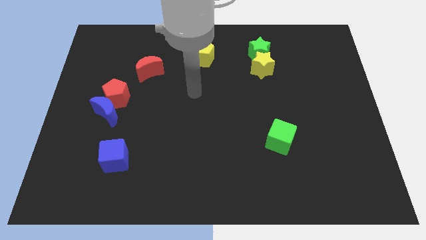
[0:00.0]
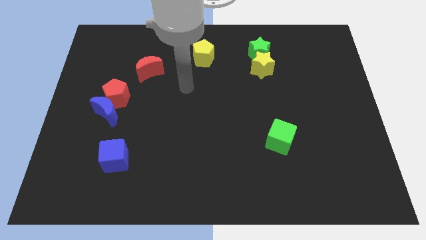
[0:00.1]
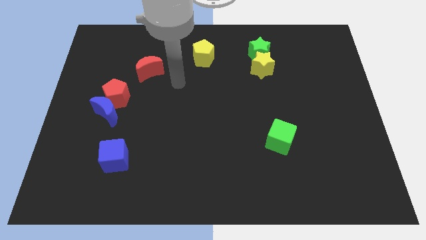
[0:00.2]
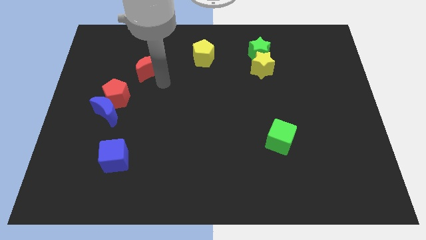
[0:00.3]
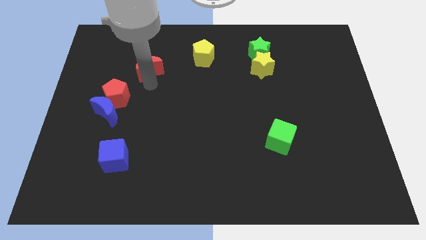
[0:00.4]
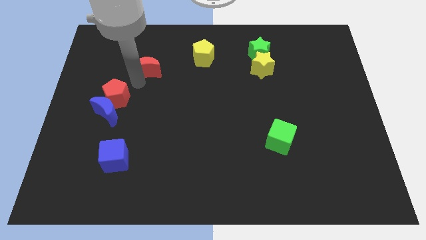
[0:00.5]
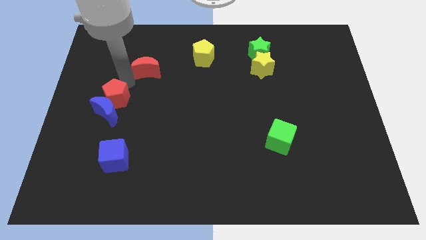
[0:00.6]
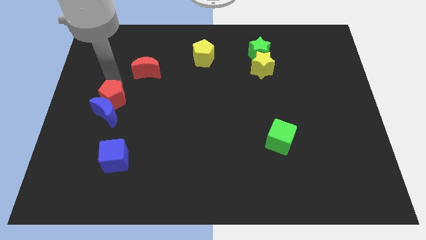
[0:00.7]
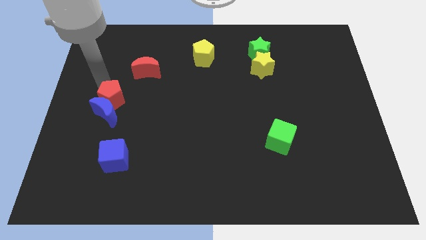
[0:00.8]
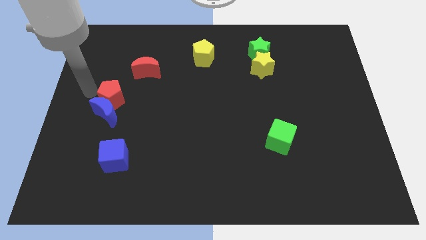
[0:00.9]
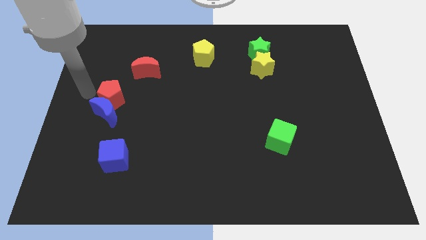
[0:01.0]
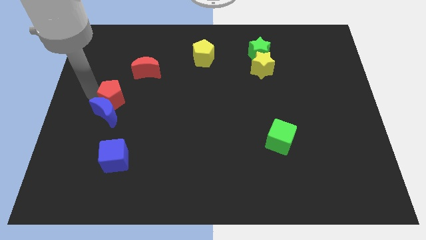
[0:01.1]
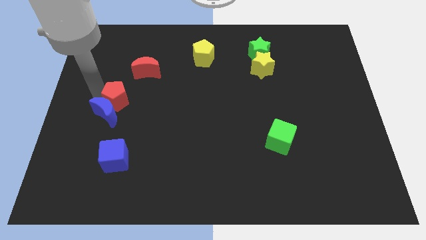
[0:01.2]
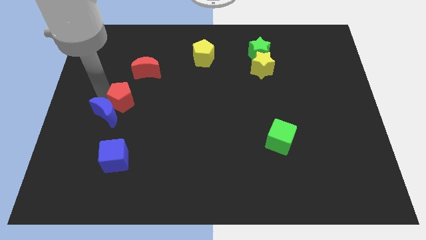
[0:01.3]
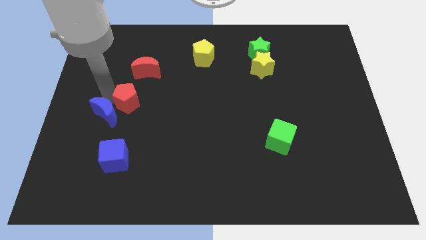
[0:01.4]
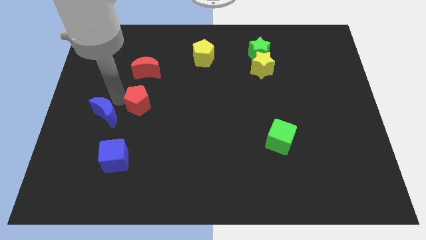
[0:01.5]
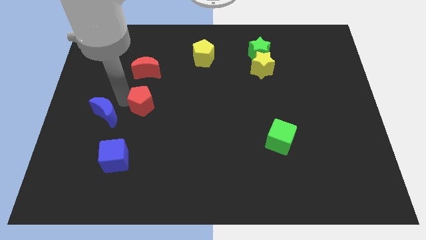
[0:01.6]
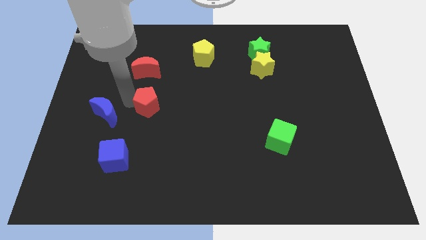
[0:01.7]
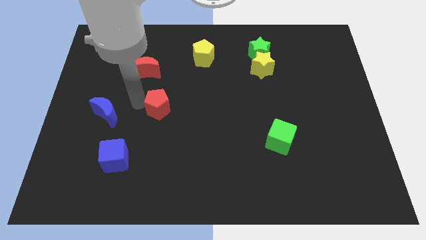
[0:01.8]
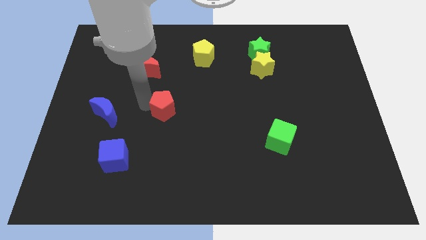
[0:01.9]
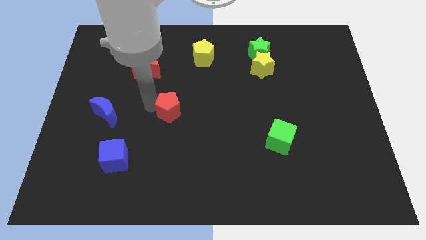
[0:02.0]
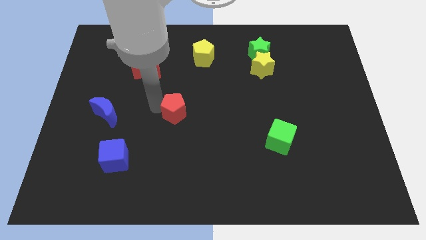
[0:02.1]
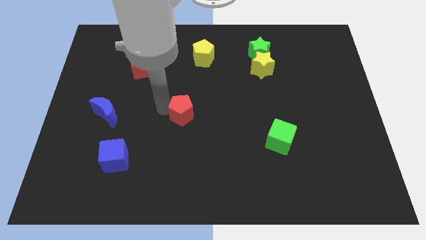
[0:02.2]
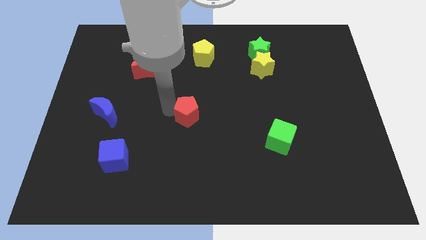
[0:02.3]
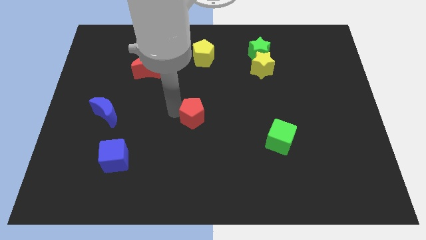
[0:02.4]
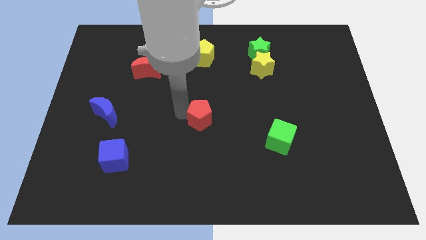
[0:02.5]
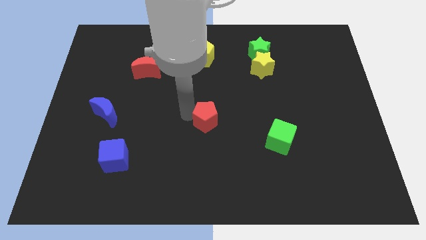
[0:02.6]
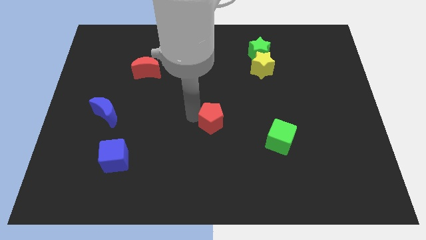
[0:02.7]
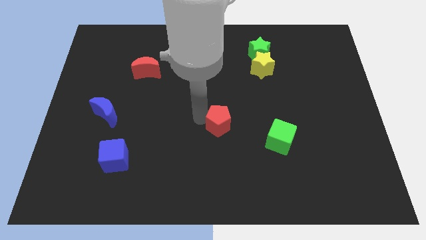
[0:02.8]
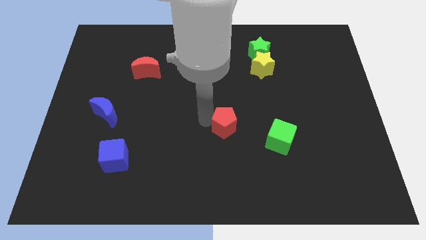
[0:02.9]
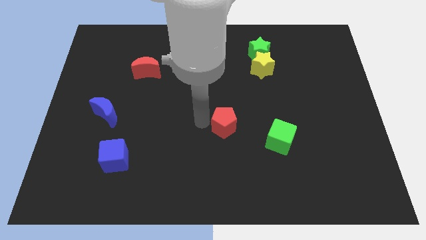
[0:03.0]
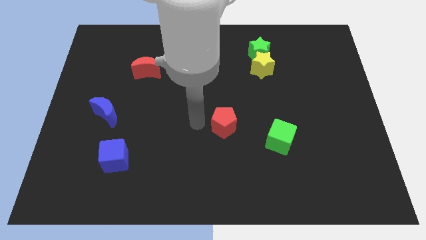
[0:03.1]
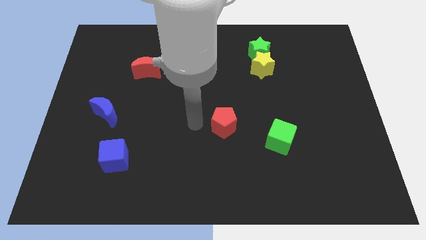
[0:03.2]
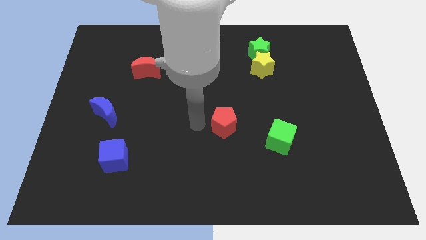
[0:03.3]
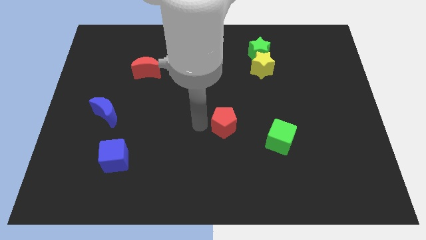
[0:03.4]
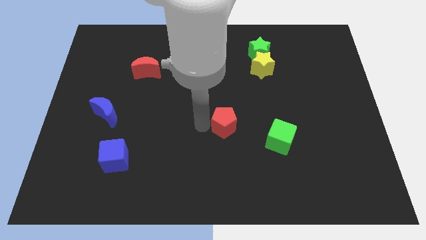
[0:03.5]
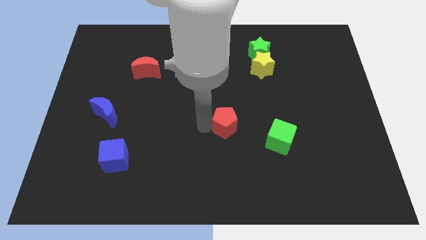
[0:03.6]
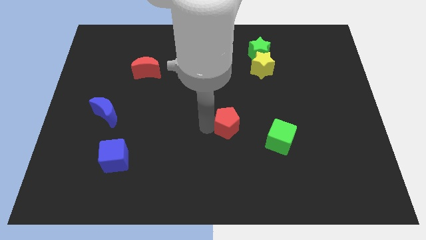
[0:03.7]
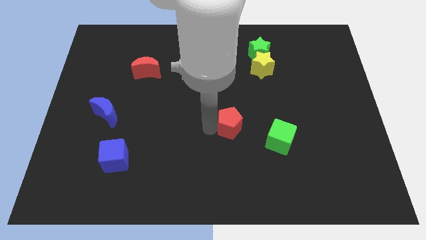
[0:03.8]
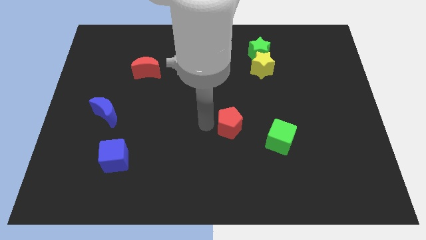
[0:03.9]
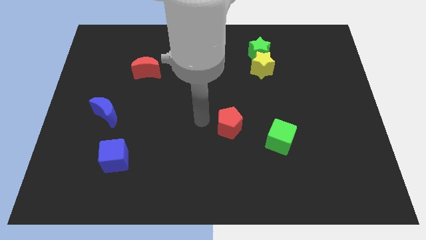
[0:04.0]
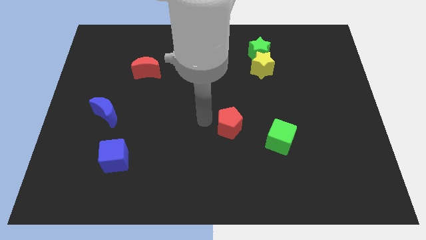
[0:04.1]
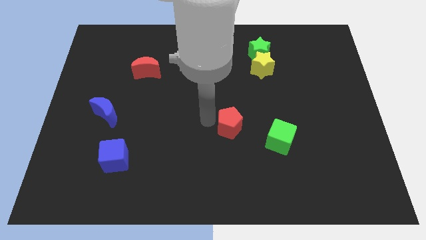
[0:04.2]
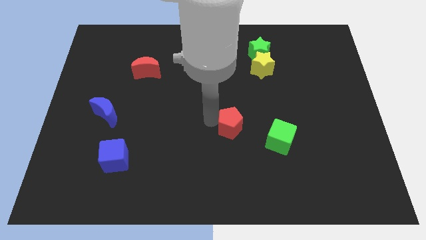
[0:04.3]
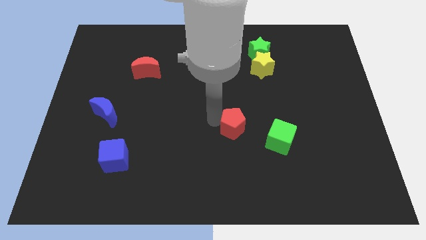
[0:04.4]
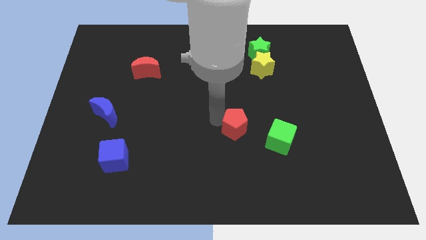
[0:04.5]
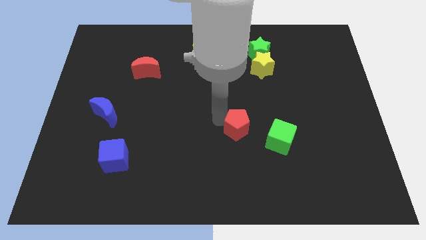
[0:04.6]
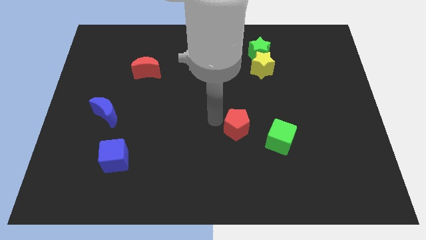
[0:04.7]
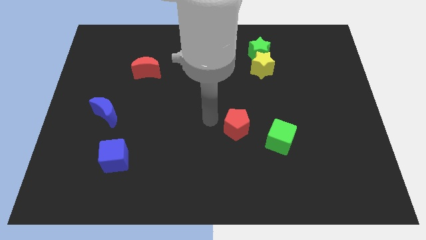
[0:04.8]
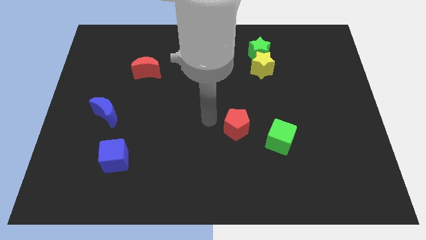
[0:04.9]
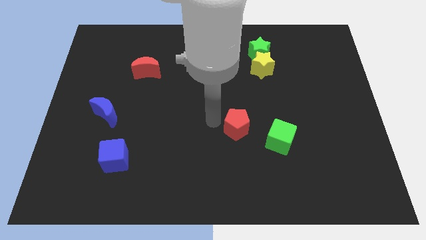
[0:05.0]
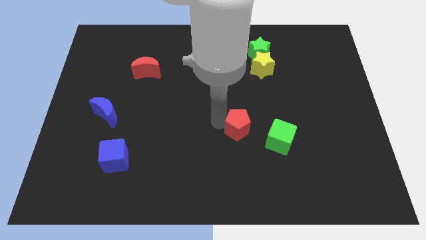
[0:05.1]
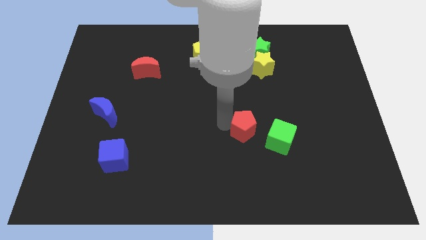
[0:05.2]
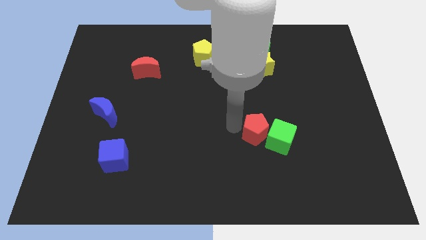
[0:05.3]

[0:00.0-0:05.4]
push the red pentagon towards the green cube

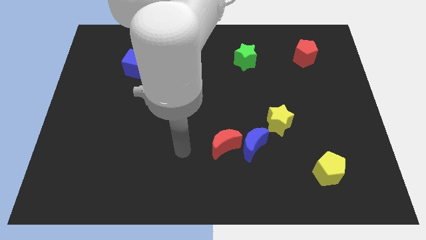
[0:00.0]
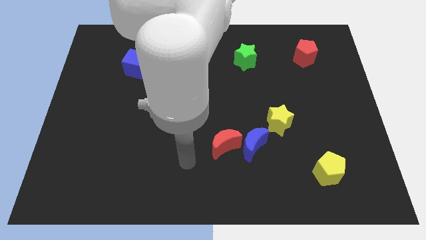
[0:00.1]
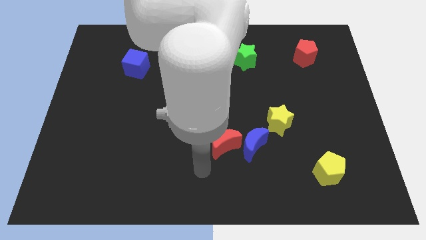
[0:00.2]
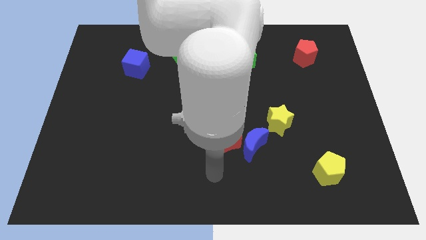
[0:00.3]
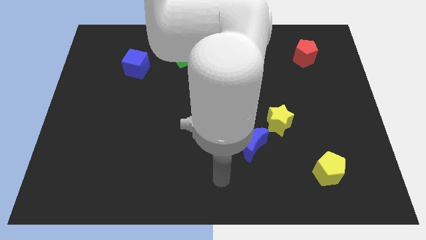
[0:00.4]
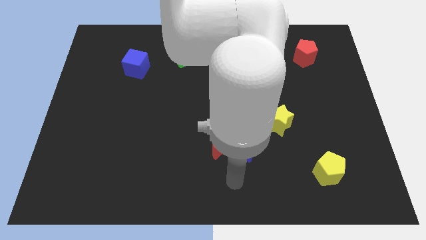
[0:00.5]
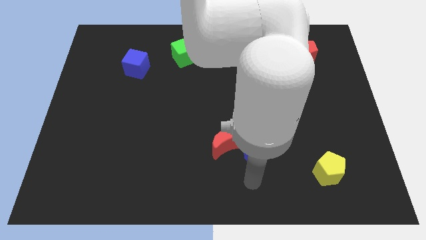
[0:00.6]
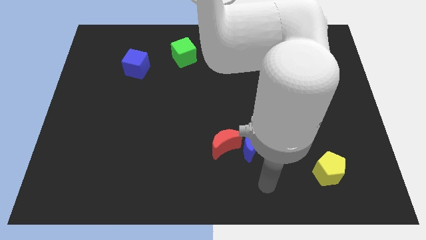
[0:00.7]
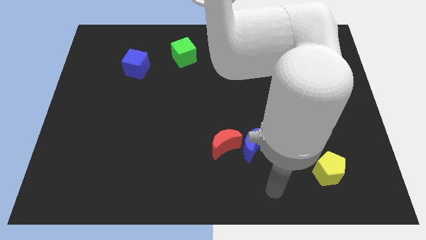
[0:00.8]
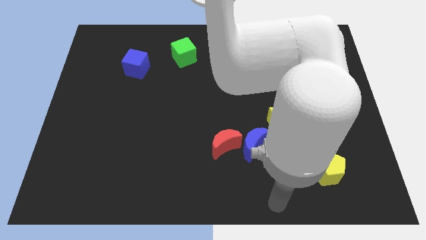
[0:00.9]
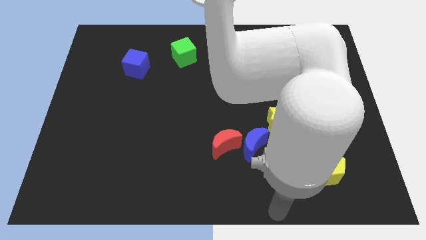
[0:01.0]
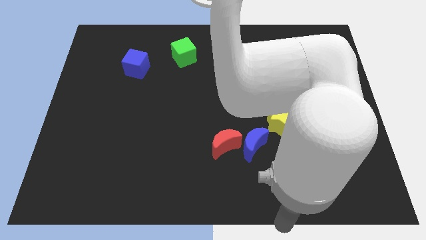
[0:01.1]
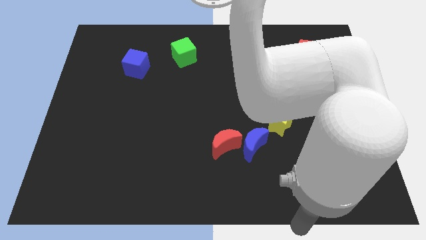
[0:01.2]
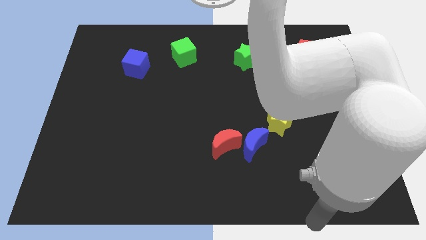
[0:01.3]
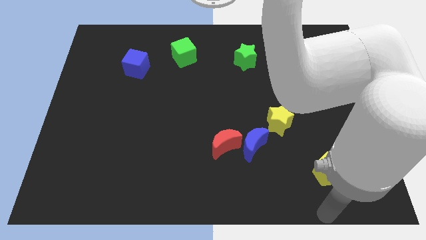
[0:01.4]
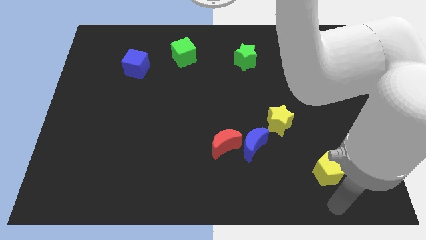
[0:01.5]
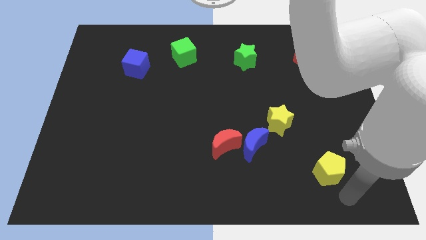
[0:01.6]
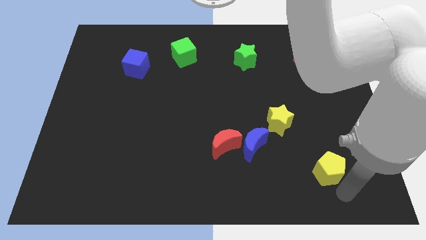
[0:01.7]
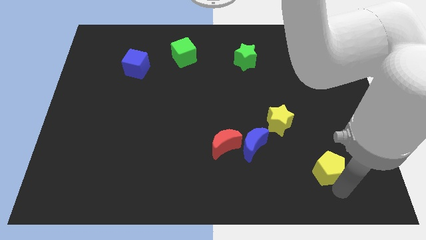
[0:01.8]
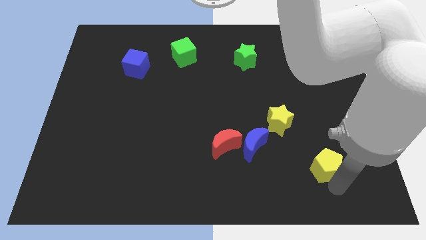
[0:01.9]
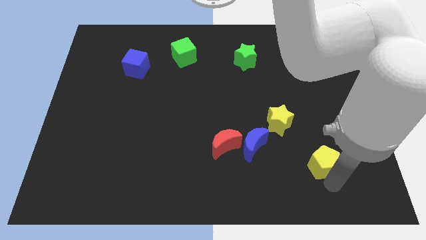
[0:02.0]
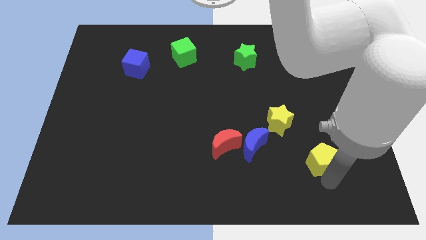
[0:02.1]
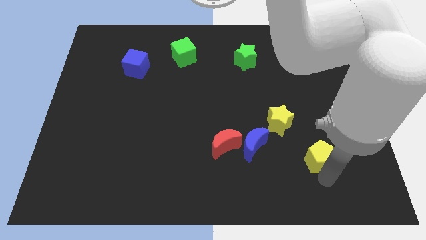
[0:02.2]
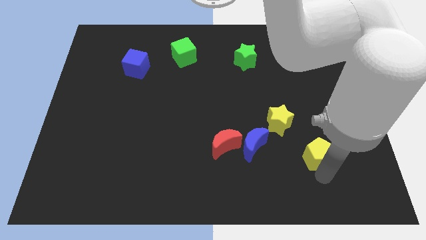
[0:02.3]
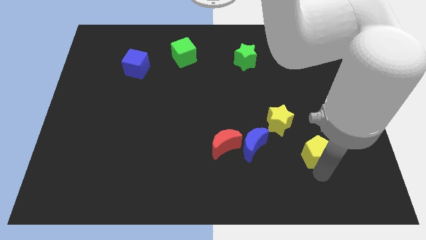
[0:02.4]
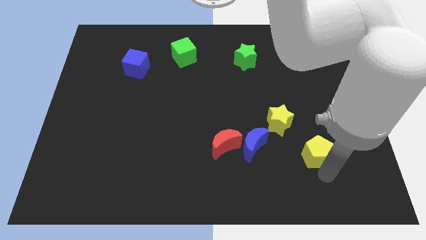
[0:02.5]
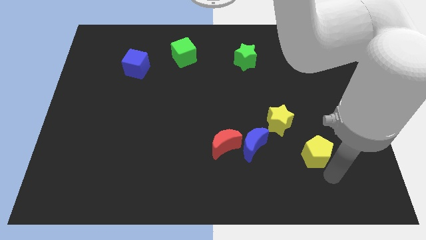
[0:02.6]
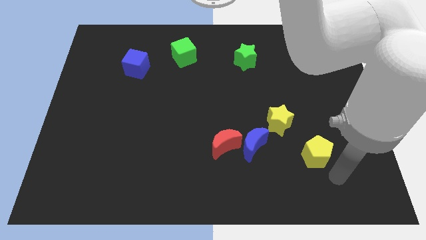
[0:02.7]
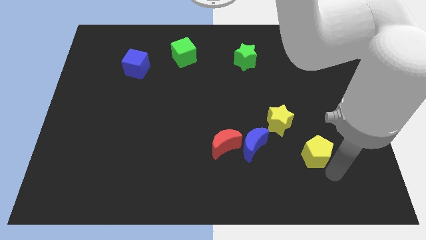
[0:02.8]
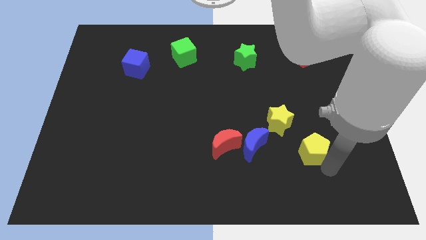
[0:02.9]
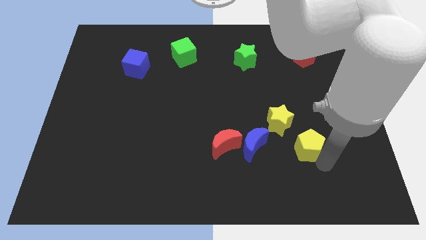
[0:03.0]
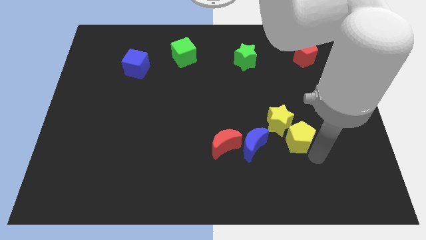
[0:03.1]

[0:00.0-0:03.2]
push the yellow pentagon towards the yellow star
